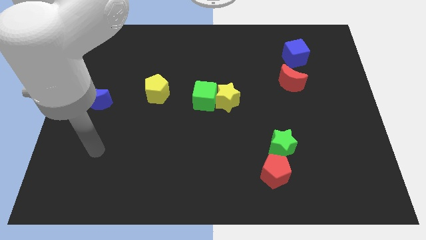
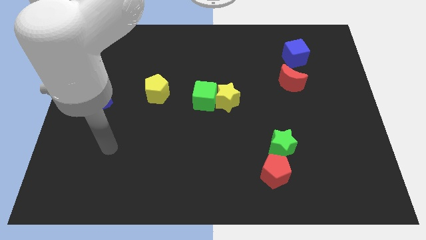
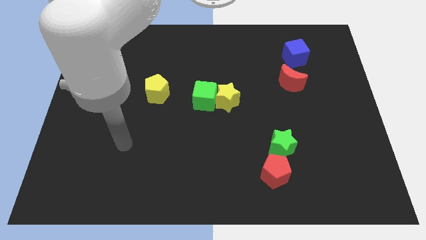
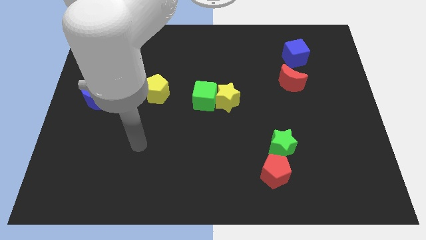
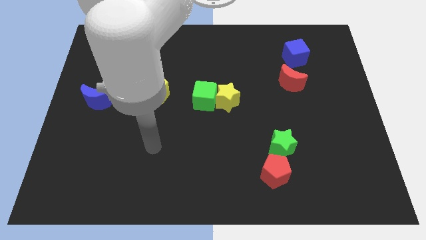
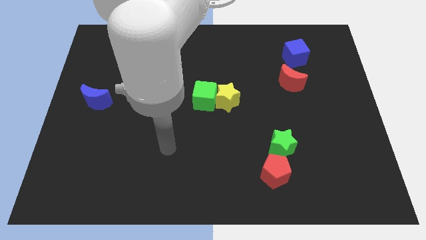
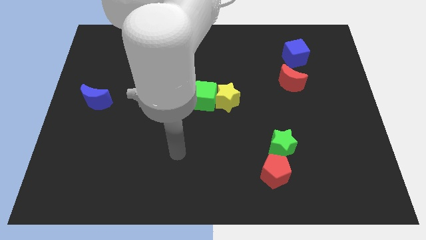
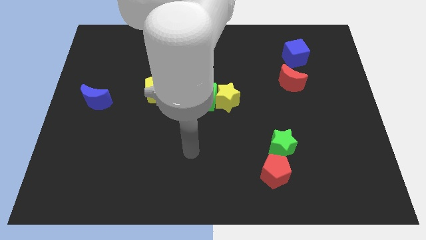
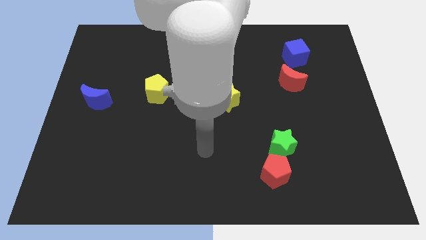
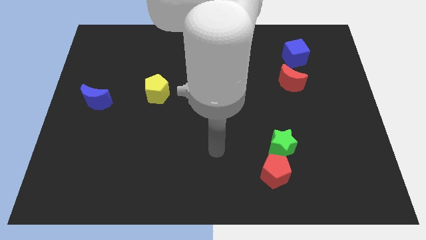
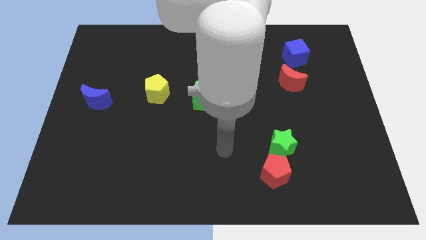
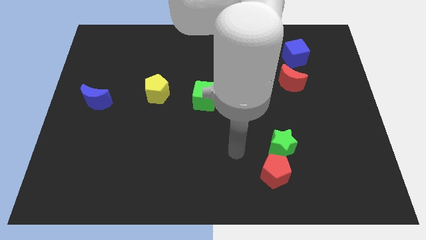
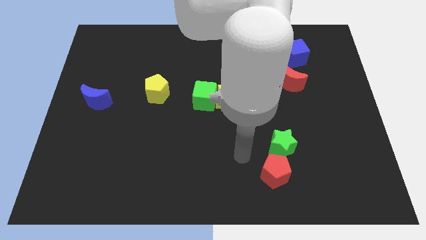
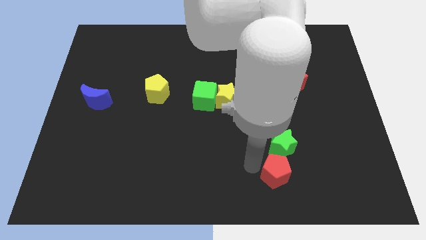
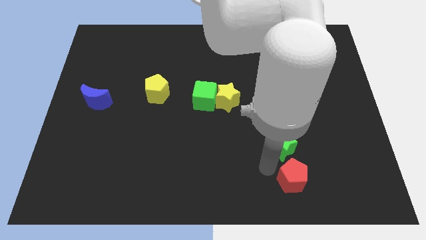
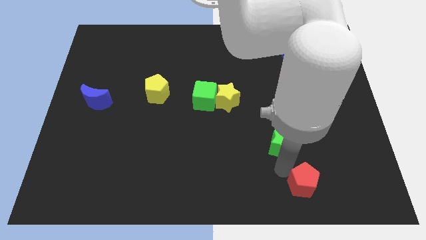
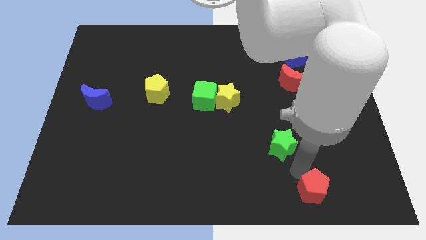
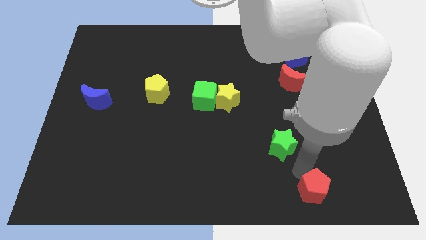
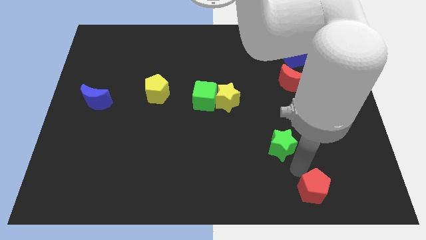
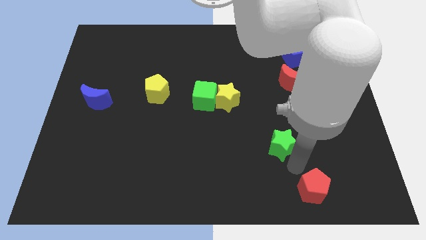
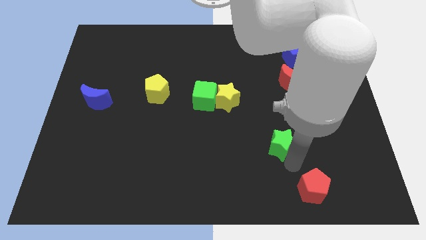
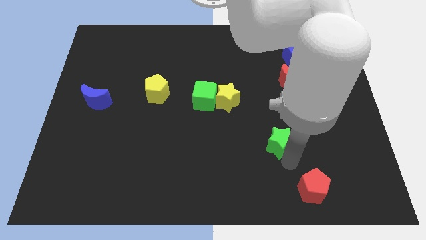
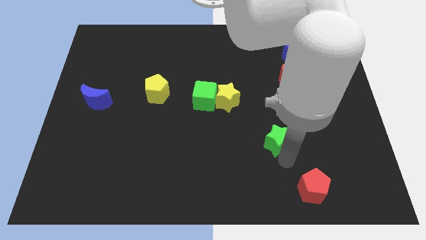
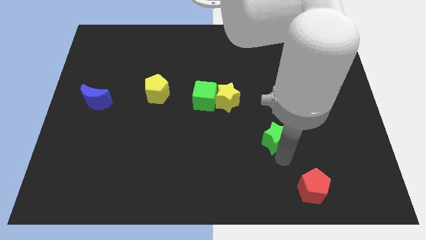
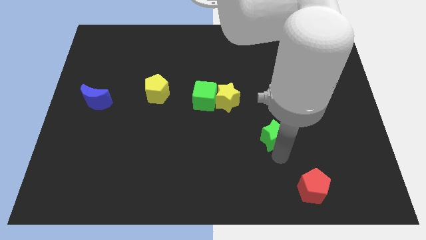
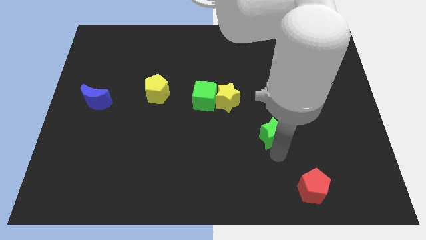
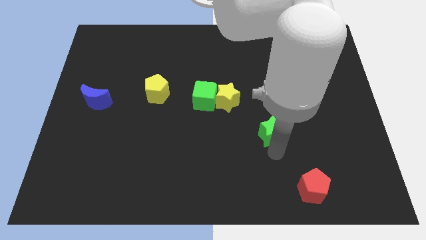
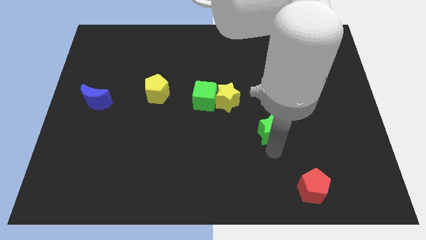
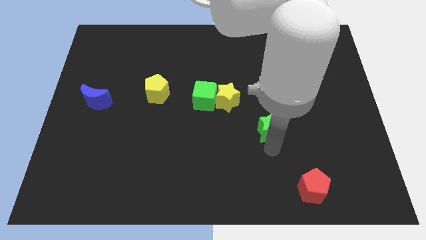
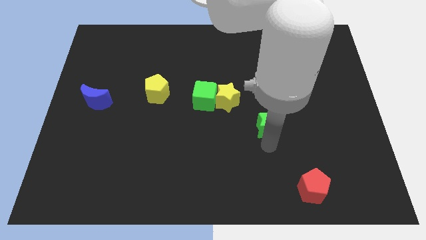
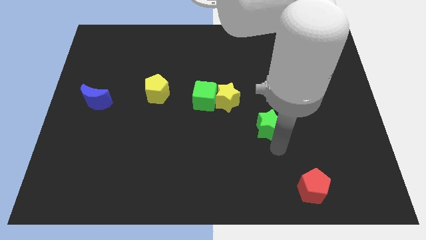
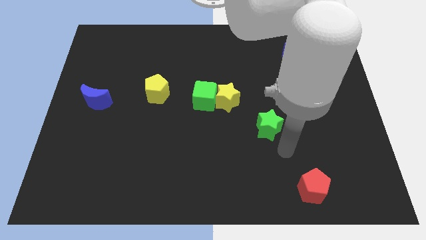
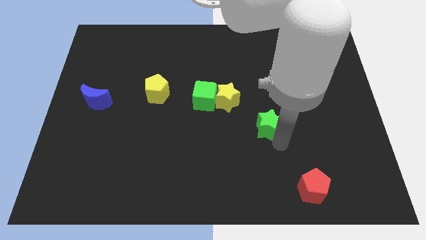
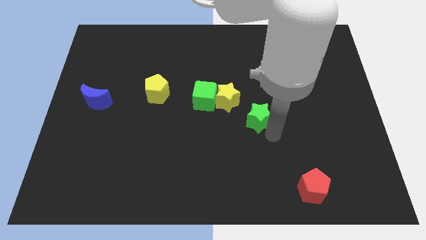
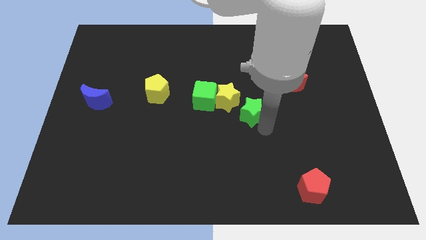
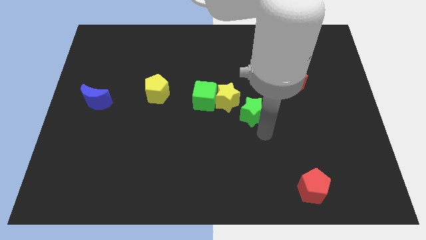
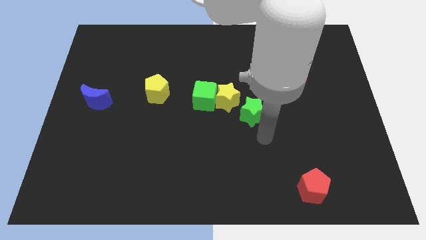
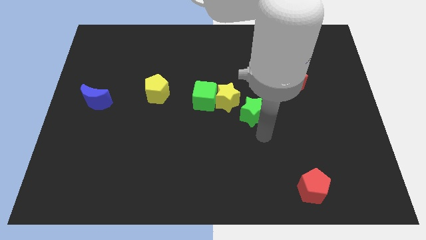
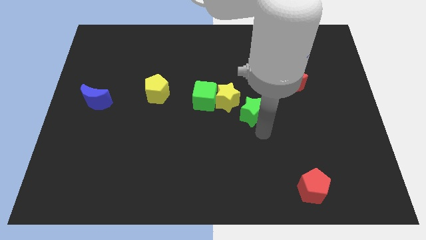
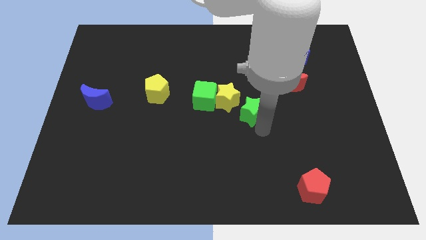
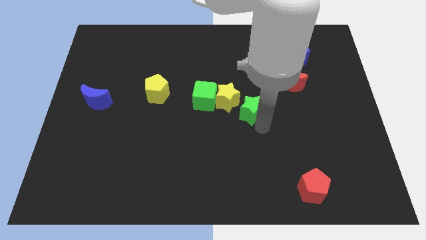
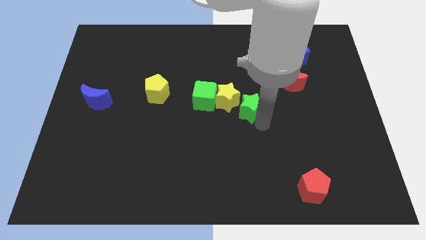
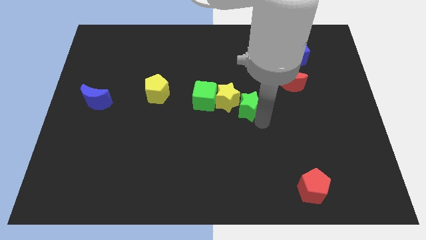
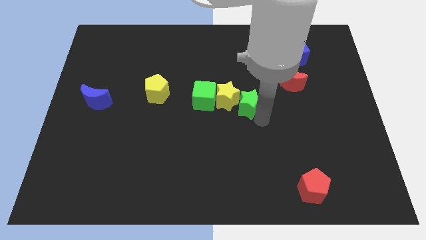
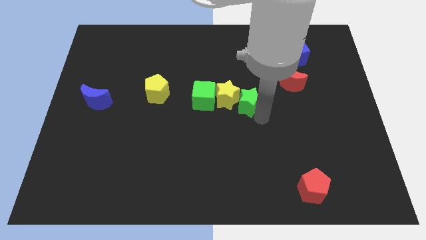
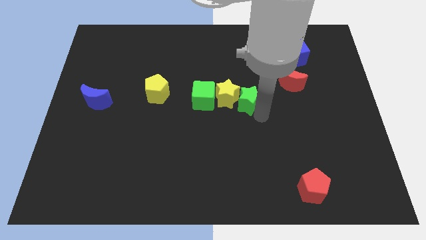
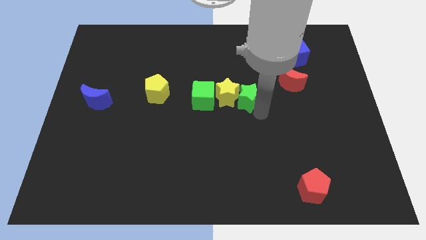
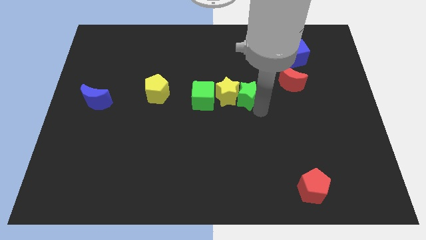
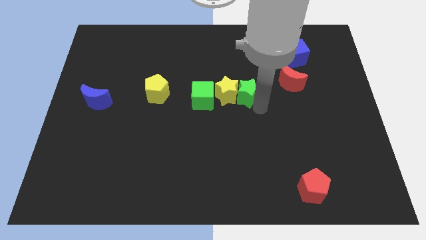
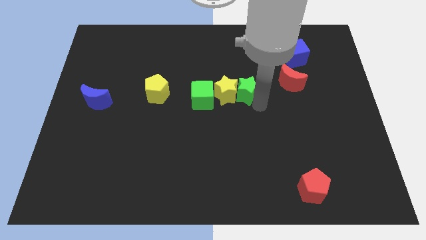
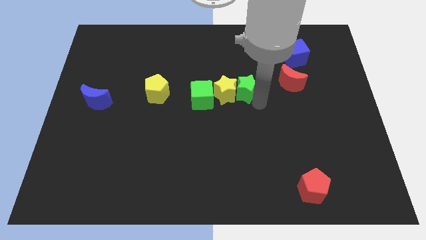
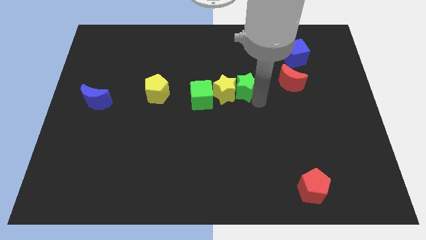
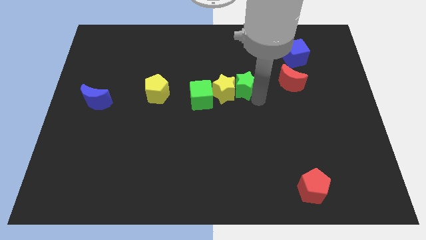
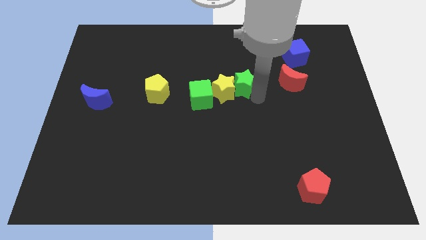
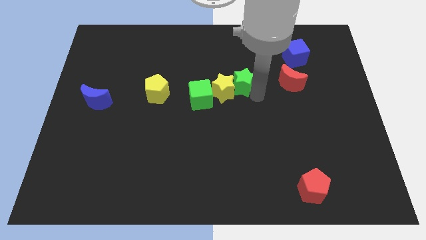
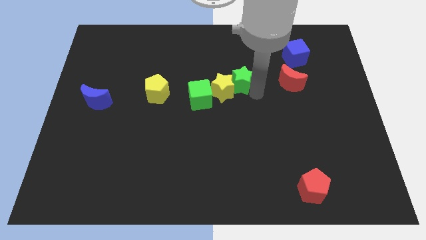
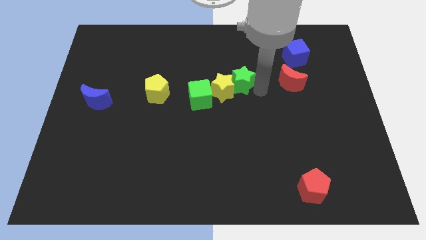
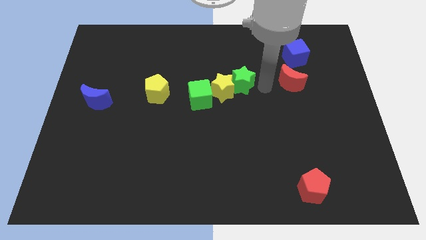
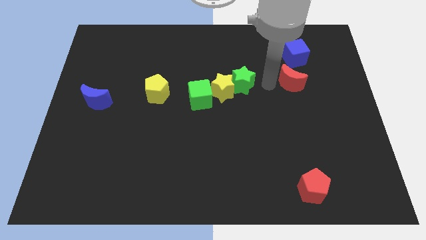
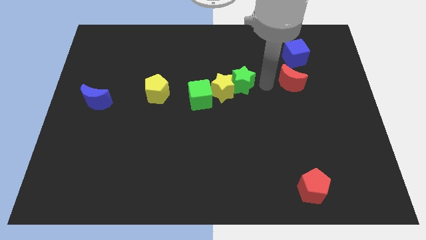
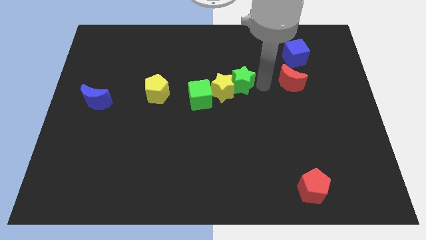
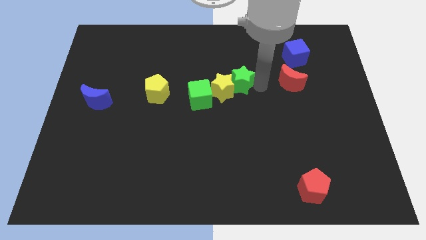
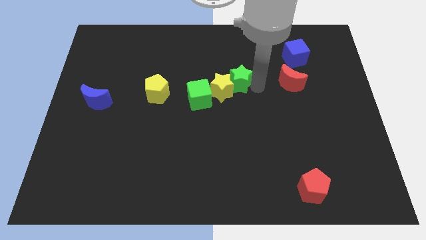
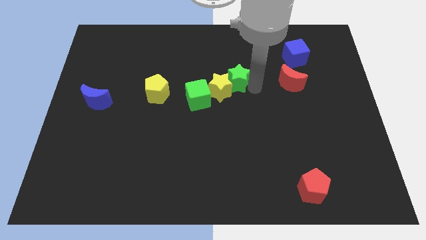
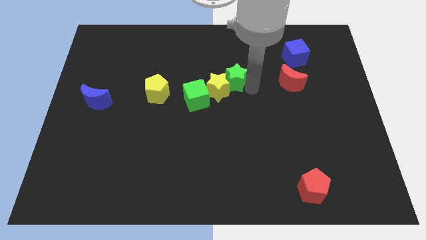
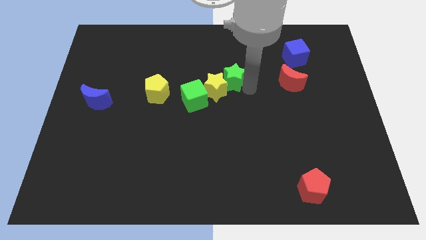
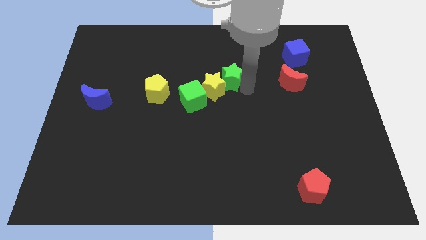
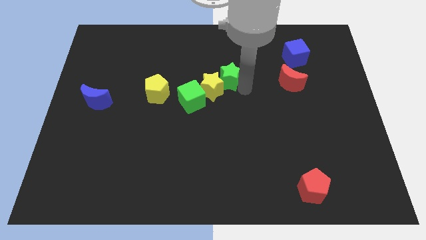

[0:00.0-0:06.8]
slide the green star diagonally upwards and to the left

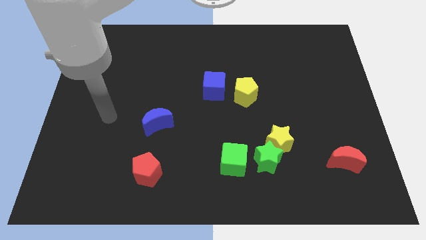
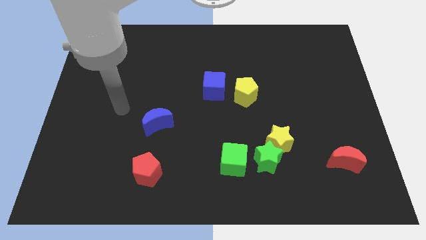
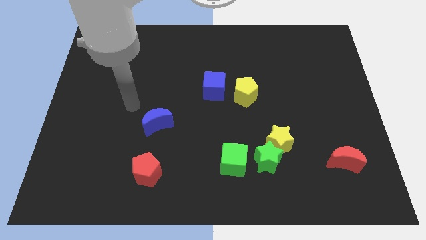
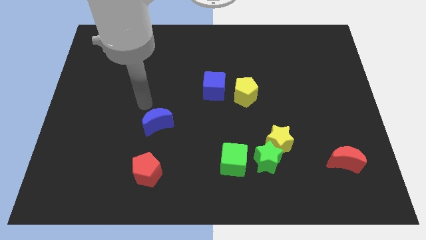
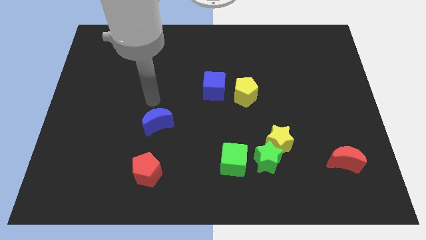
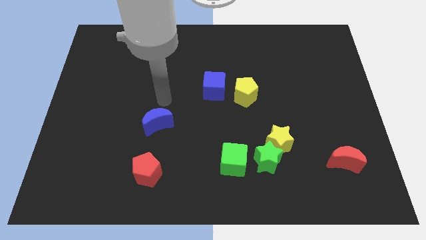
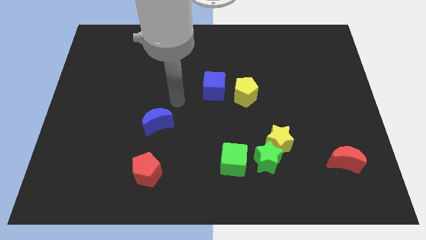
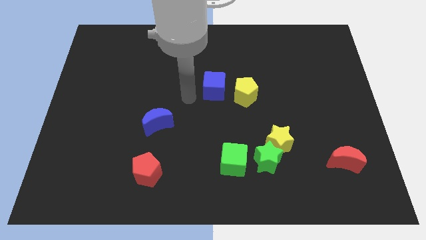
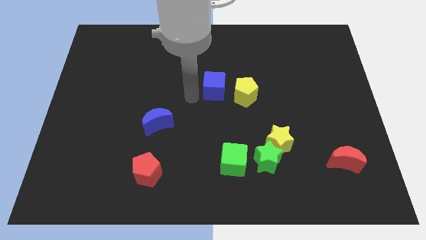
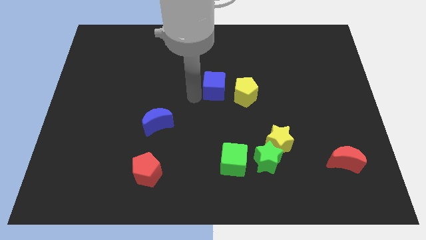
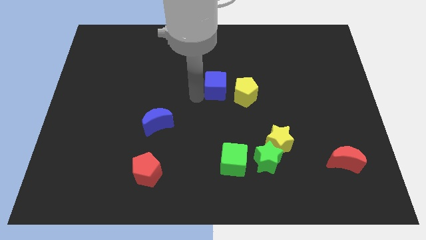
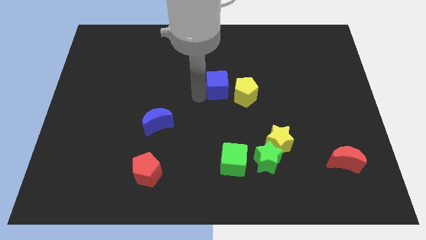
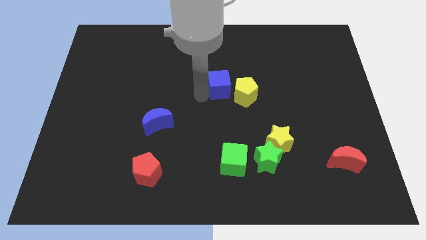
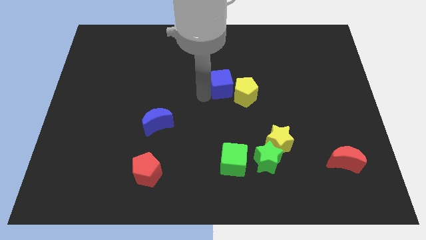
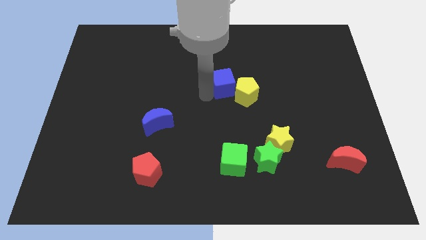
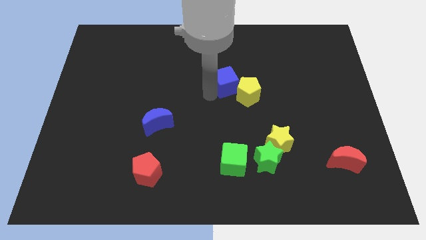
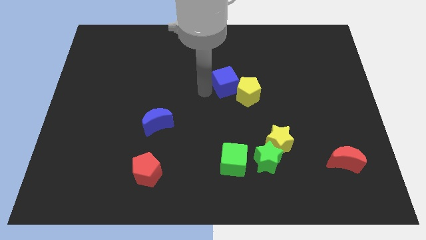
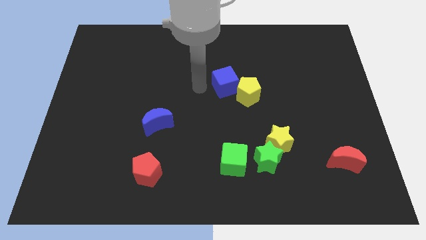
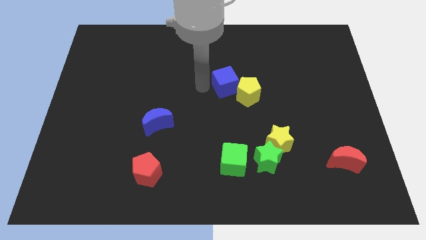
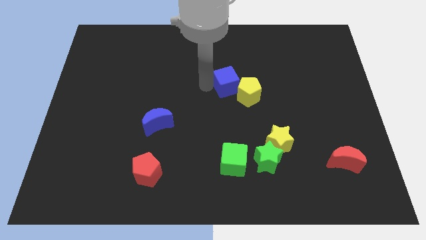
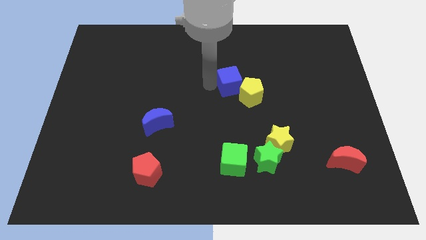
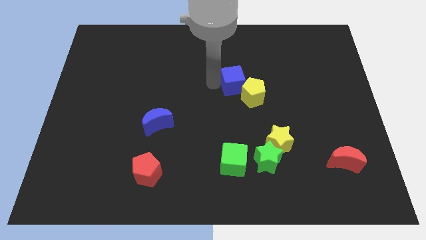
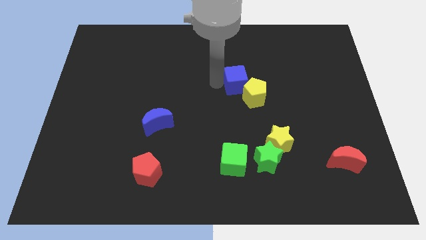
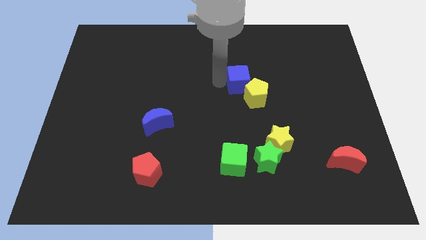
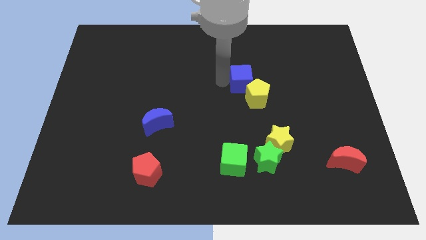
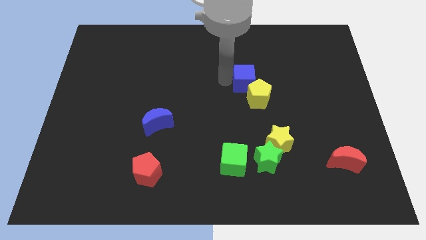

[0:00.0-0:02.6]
slide the blue cube somewhat right
